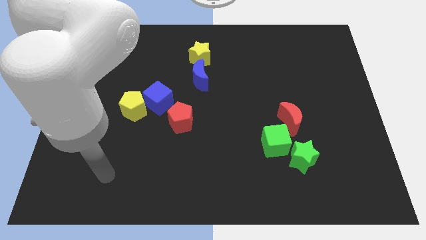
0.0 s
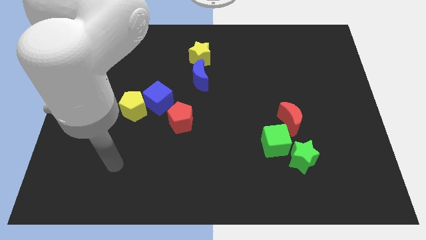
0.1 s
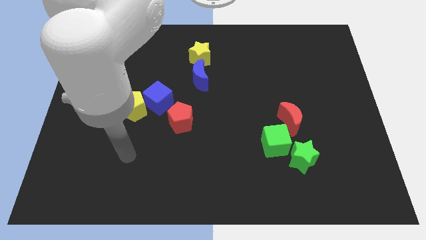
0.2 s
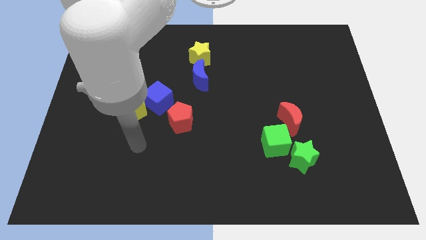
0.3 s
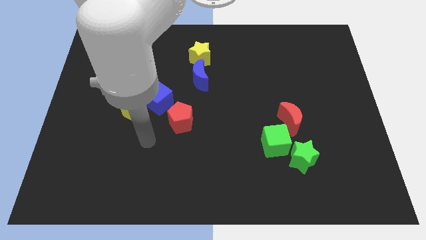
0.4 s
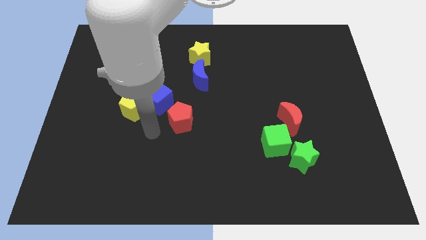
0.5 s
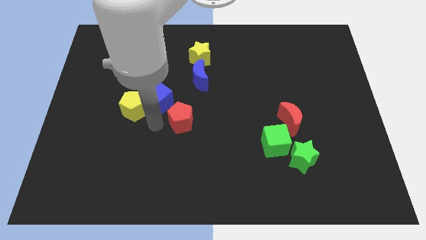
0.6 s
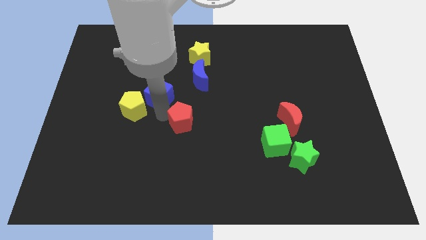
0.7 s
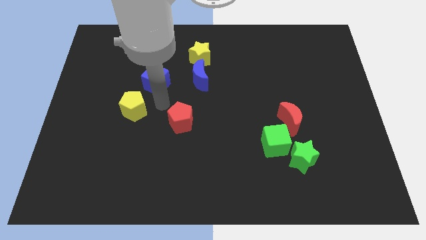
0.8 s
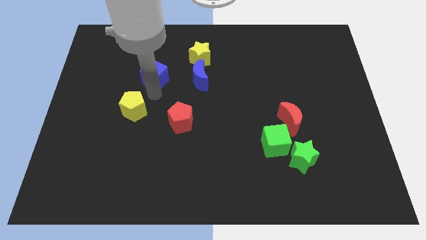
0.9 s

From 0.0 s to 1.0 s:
separate the yellow pentagon from the blue cube

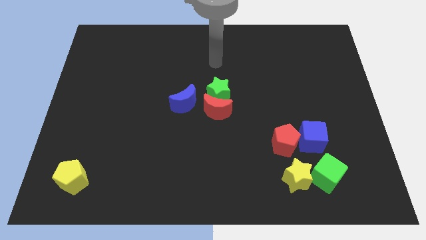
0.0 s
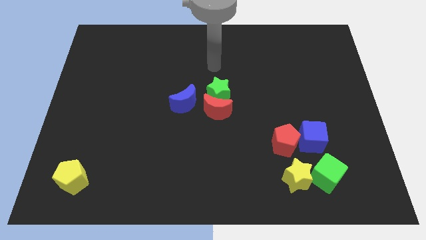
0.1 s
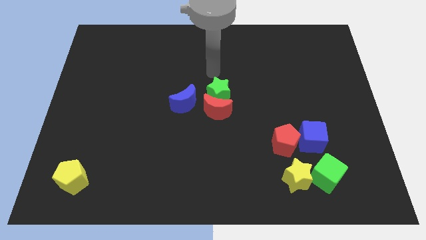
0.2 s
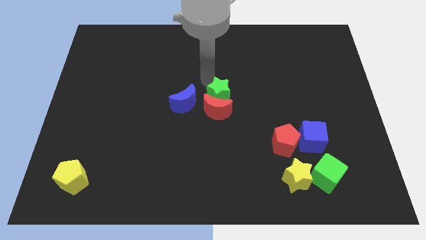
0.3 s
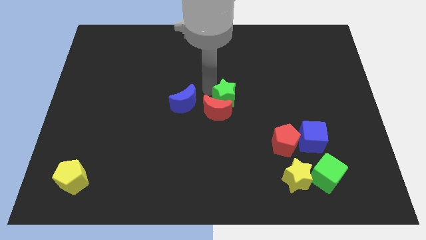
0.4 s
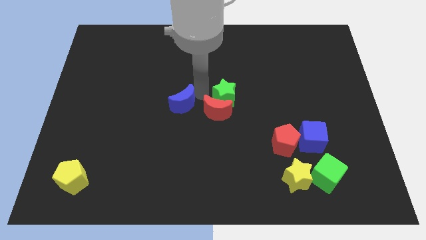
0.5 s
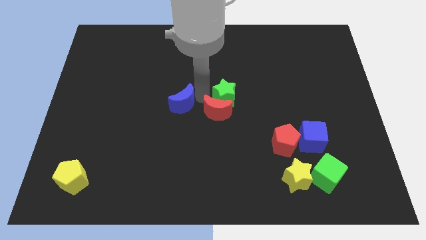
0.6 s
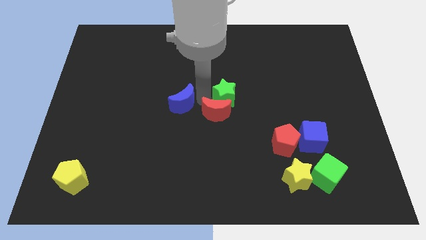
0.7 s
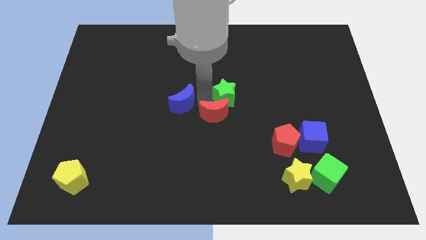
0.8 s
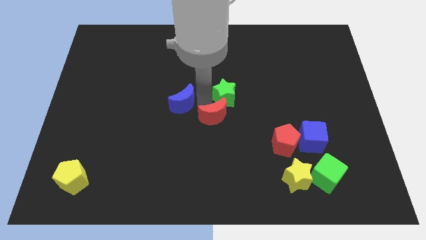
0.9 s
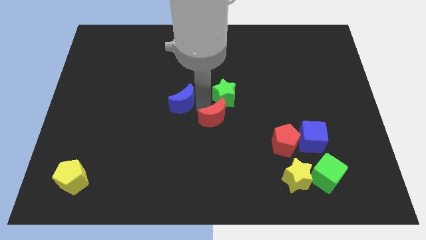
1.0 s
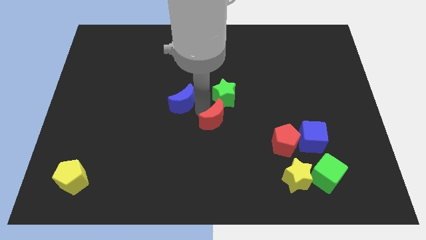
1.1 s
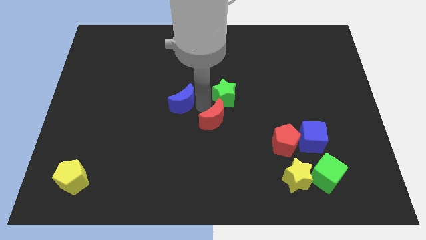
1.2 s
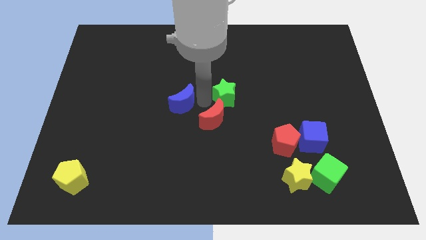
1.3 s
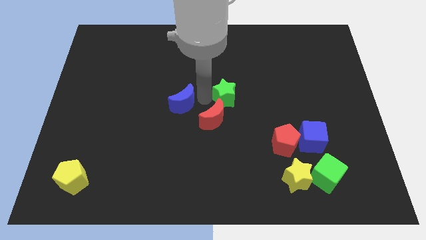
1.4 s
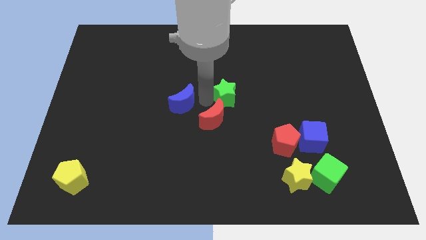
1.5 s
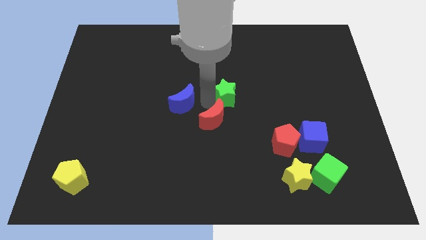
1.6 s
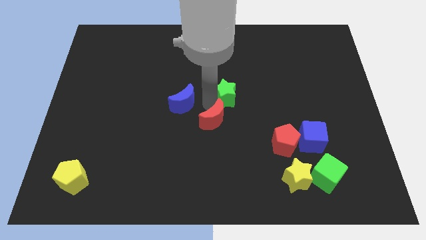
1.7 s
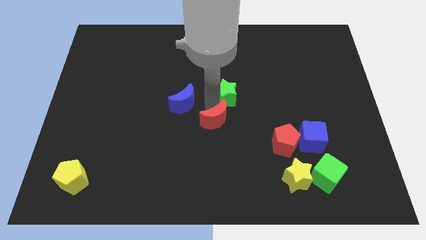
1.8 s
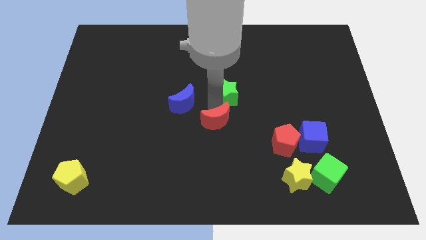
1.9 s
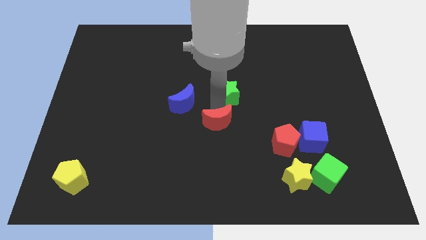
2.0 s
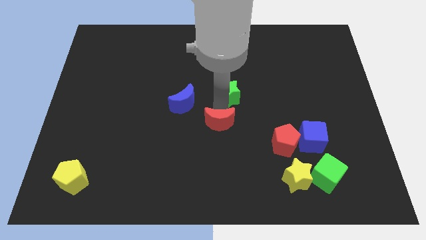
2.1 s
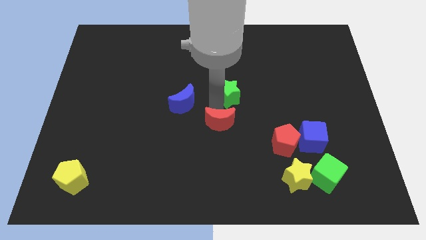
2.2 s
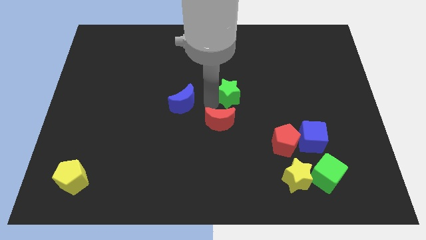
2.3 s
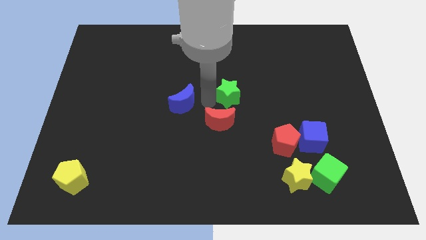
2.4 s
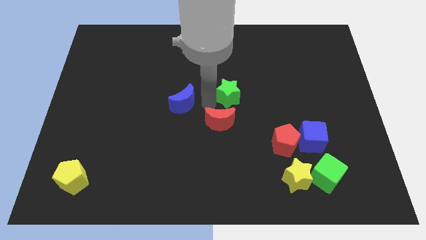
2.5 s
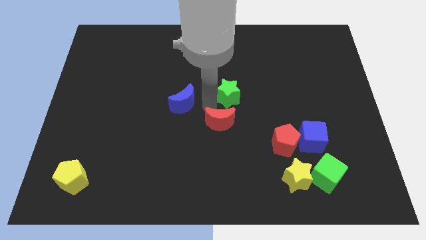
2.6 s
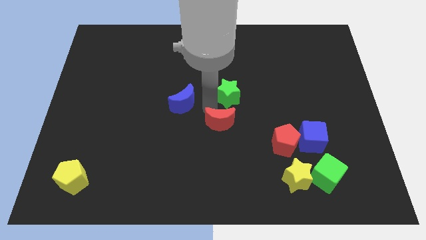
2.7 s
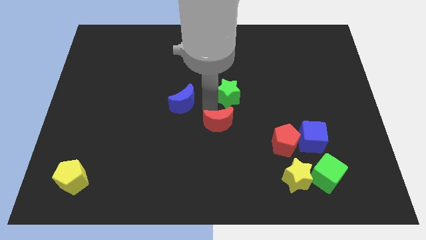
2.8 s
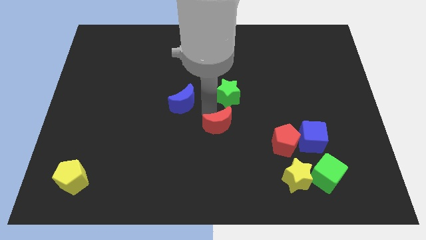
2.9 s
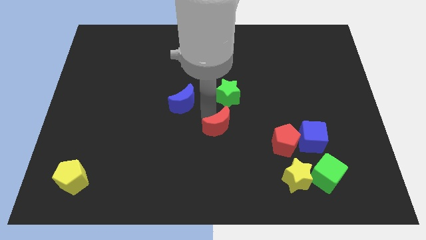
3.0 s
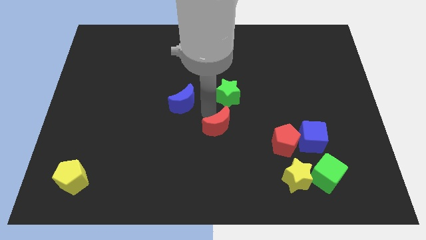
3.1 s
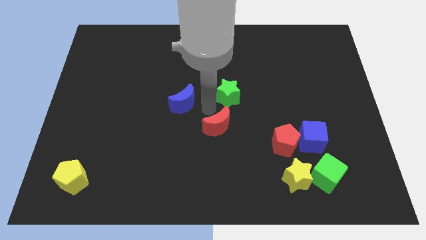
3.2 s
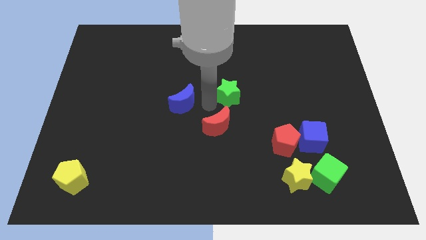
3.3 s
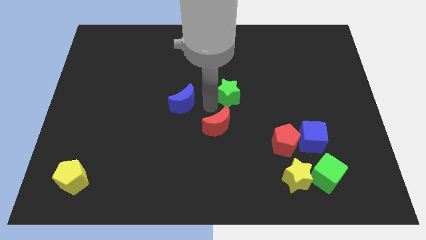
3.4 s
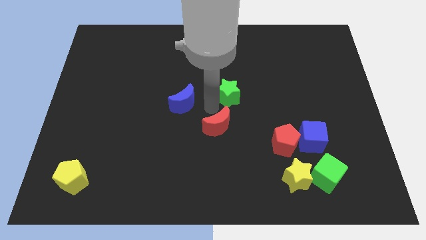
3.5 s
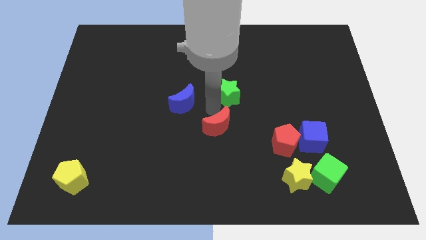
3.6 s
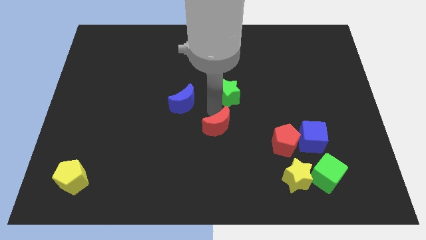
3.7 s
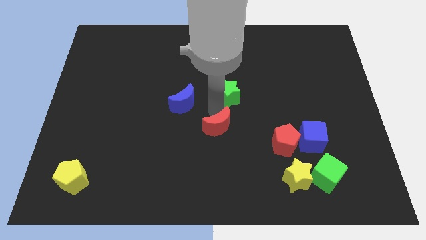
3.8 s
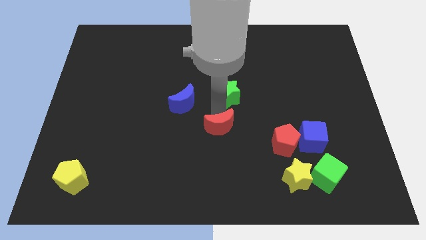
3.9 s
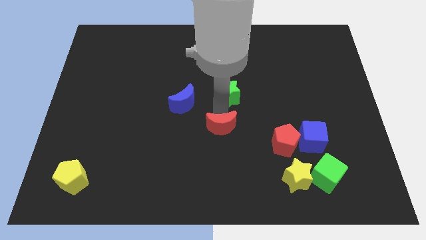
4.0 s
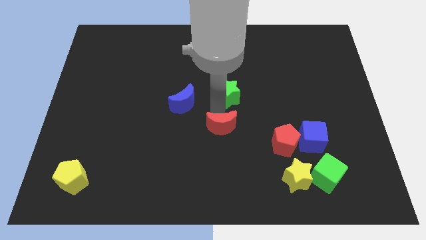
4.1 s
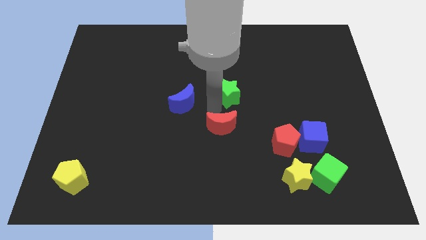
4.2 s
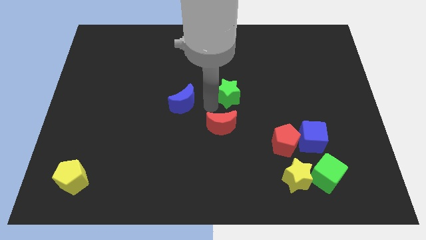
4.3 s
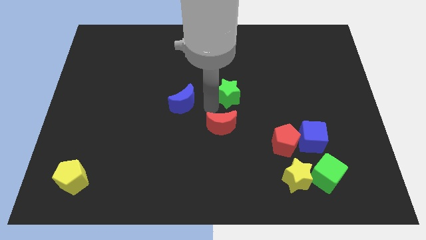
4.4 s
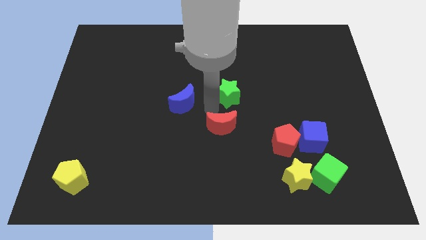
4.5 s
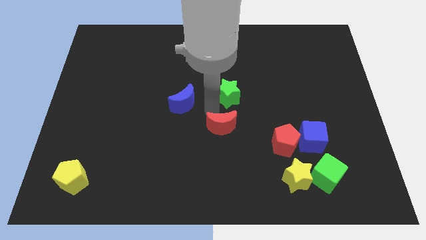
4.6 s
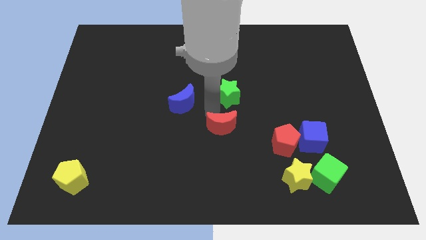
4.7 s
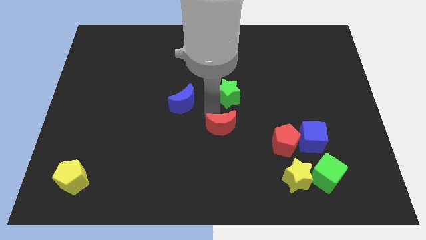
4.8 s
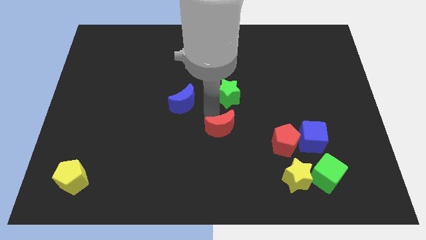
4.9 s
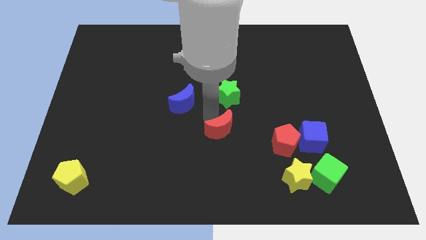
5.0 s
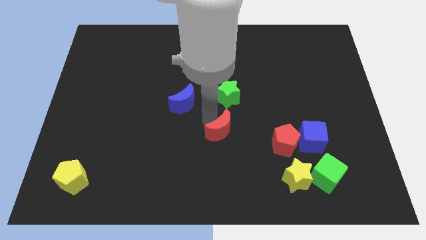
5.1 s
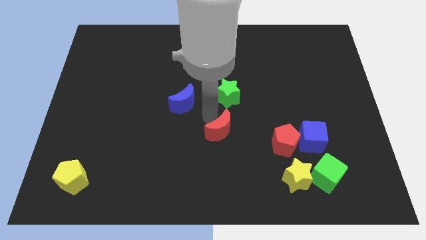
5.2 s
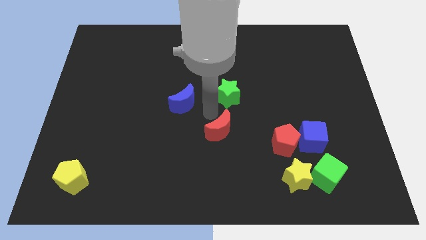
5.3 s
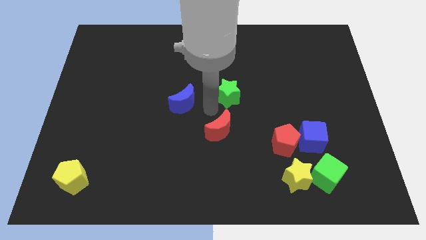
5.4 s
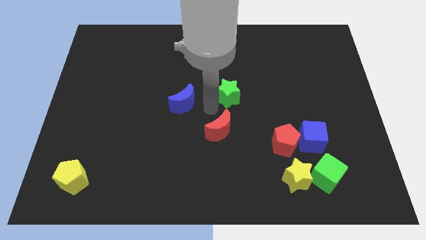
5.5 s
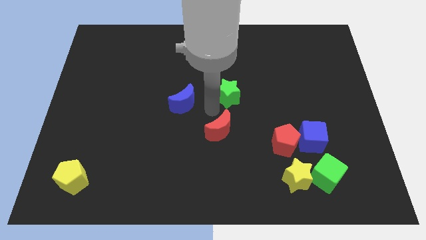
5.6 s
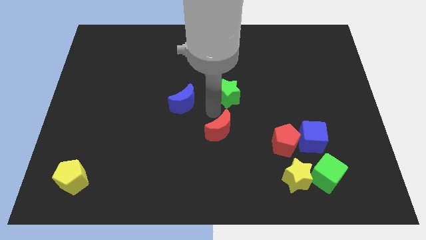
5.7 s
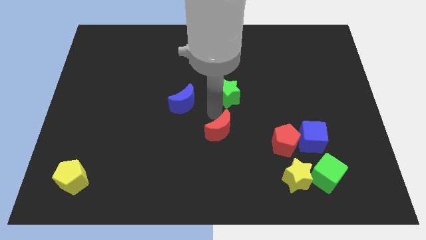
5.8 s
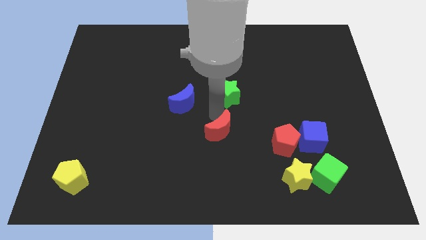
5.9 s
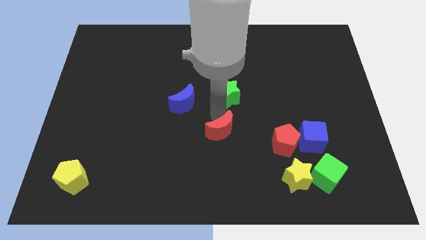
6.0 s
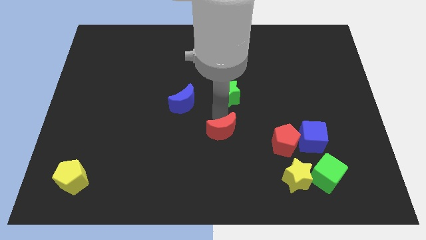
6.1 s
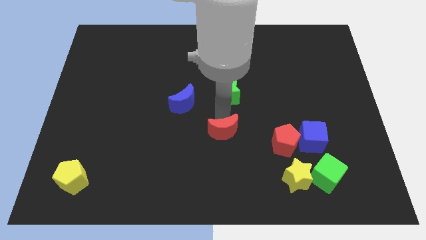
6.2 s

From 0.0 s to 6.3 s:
pull the red moon apart from the green star and blue moon

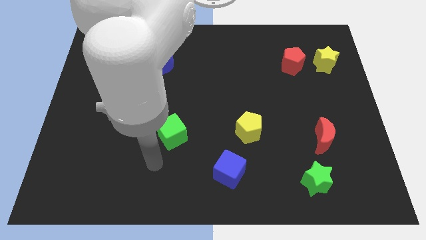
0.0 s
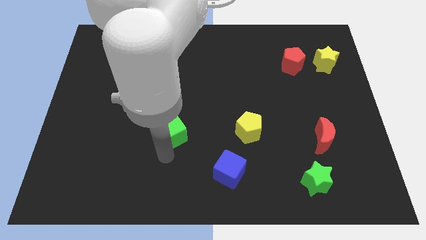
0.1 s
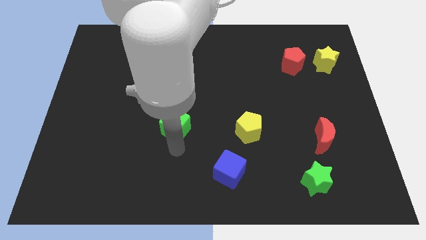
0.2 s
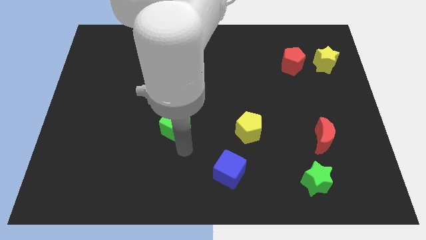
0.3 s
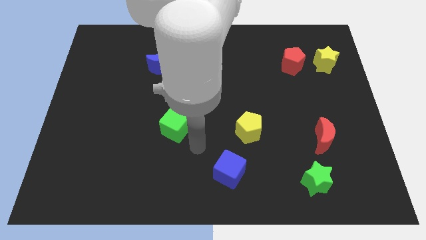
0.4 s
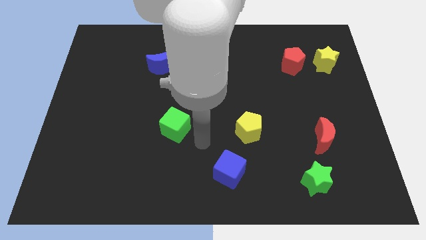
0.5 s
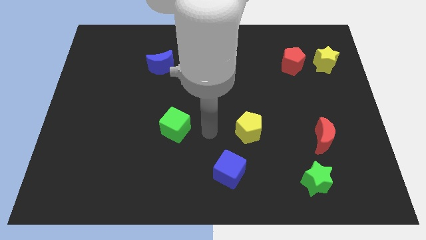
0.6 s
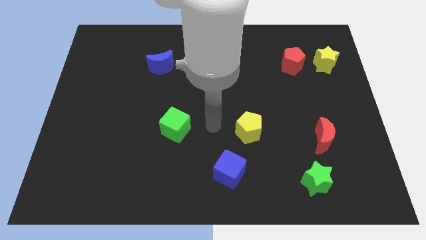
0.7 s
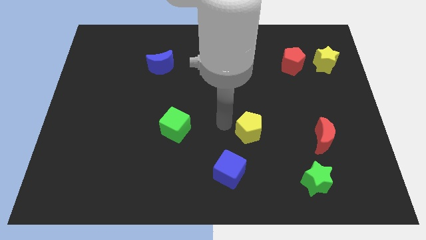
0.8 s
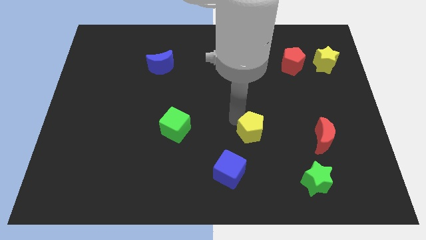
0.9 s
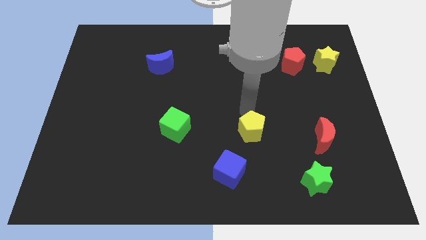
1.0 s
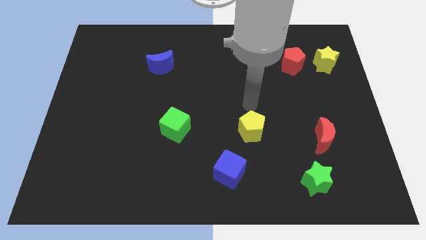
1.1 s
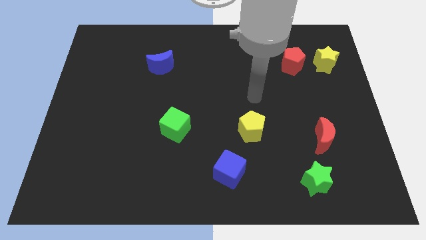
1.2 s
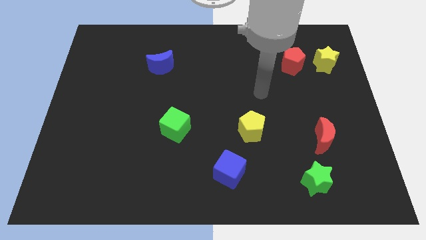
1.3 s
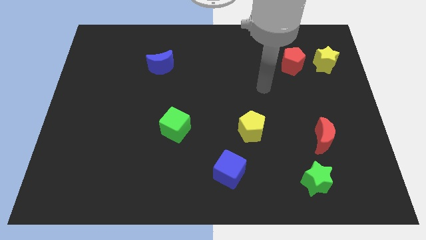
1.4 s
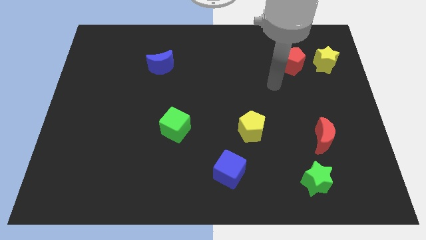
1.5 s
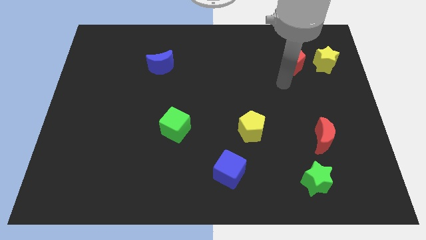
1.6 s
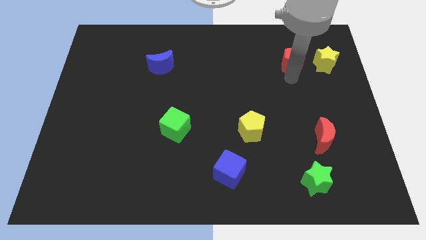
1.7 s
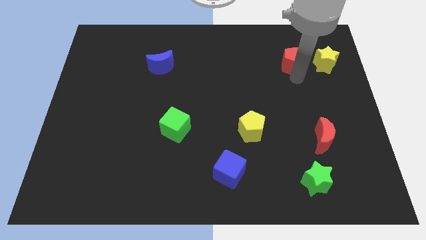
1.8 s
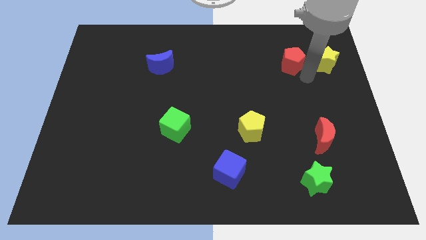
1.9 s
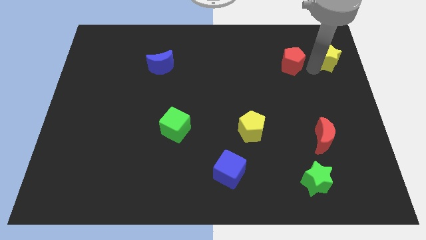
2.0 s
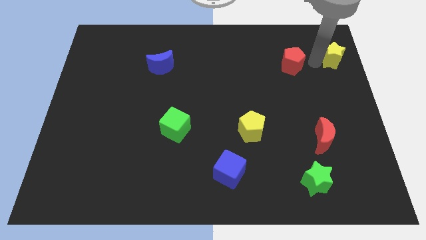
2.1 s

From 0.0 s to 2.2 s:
move the red pentagon away from the yellow star
